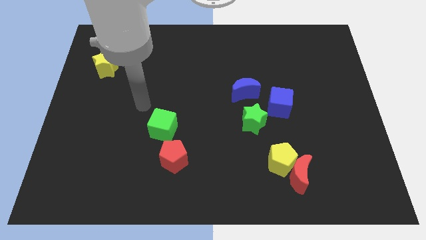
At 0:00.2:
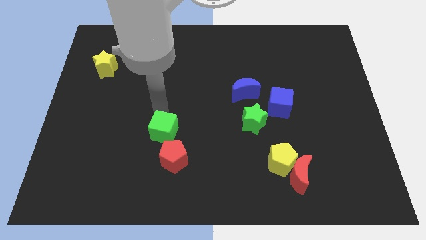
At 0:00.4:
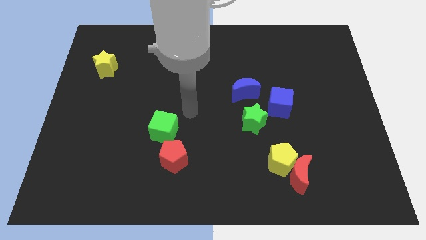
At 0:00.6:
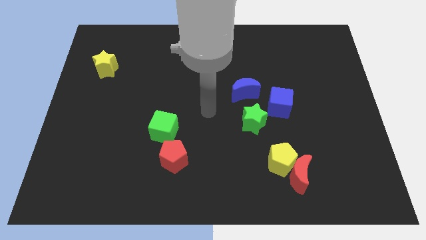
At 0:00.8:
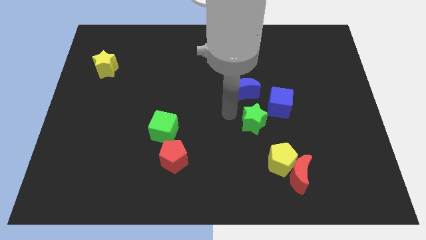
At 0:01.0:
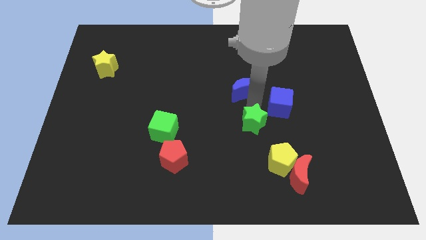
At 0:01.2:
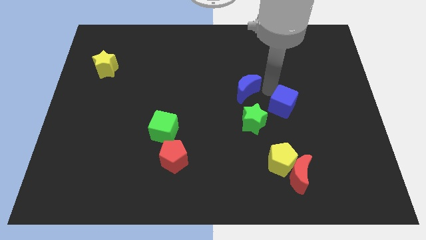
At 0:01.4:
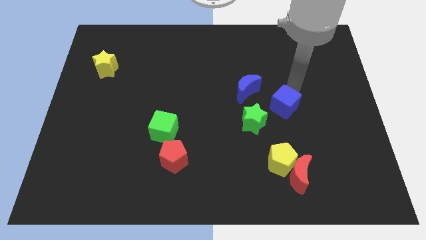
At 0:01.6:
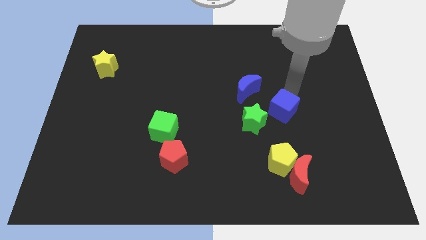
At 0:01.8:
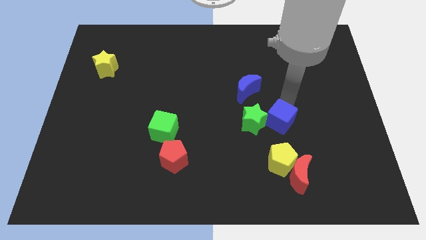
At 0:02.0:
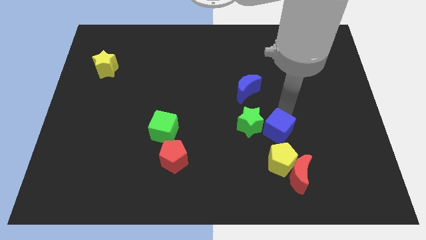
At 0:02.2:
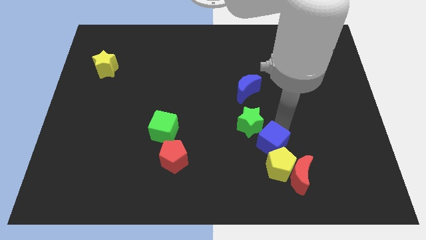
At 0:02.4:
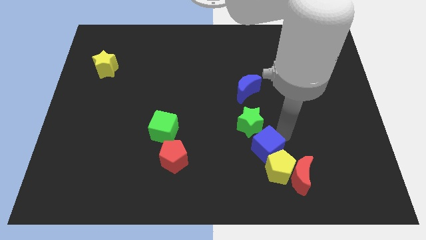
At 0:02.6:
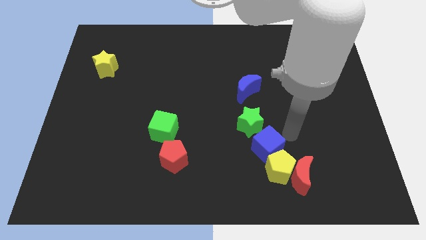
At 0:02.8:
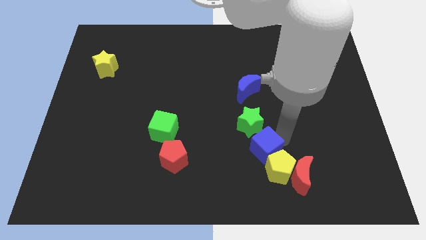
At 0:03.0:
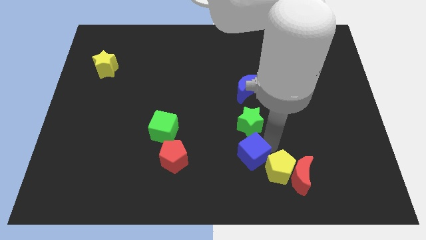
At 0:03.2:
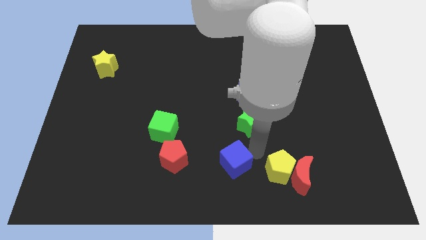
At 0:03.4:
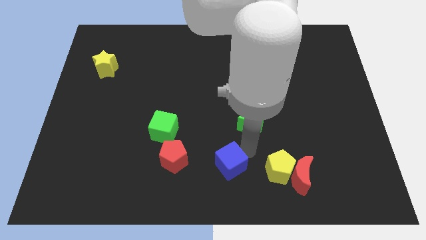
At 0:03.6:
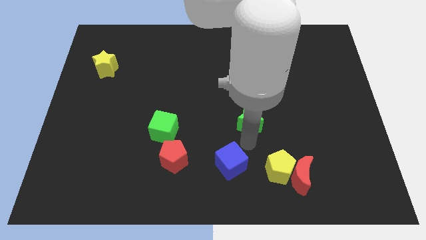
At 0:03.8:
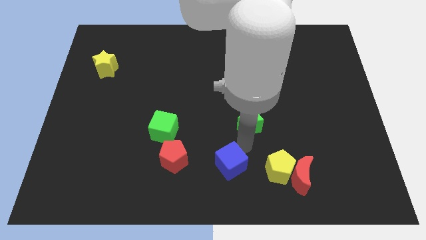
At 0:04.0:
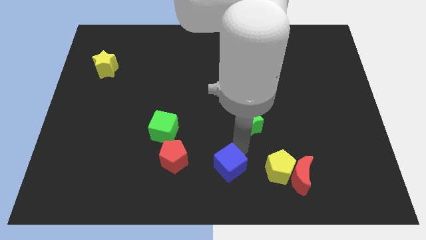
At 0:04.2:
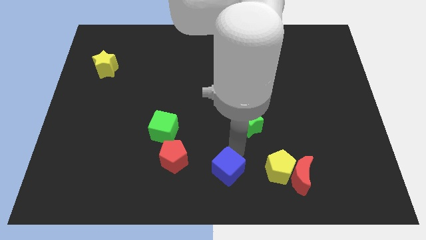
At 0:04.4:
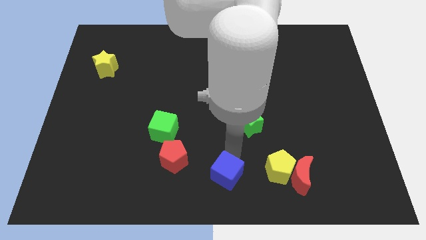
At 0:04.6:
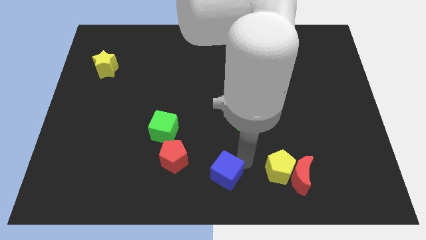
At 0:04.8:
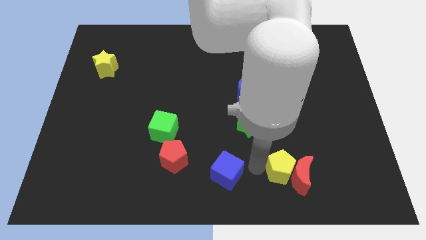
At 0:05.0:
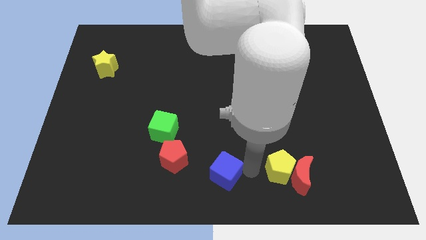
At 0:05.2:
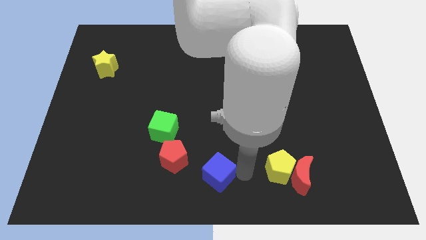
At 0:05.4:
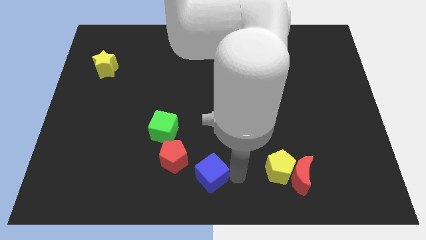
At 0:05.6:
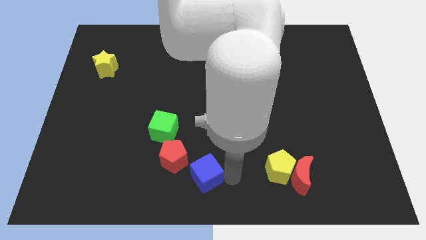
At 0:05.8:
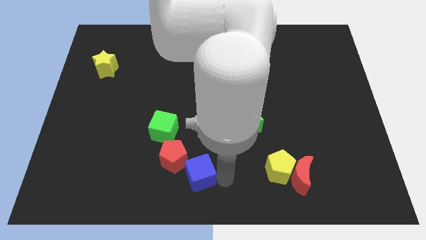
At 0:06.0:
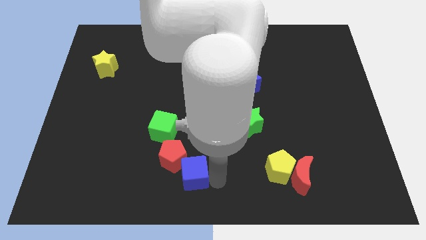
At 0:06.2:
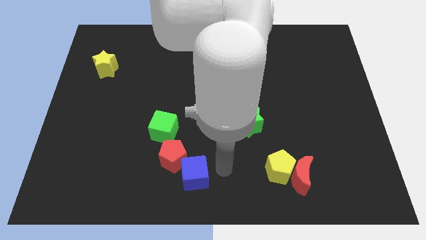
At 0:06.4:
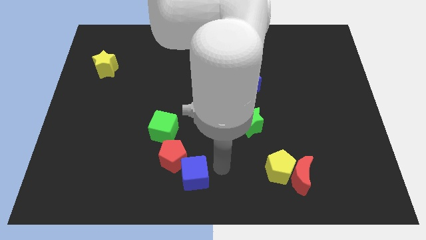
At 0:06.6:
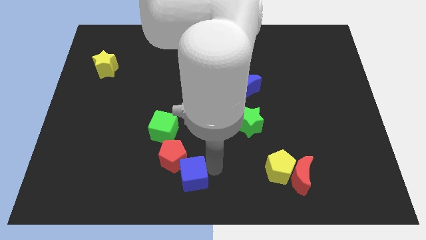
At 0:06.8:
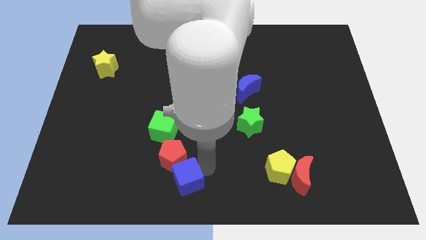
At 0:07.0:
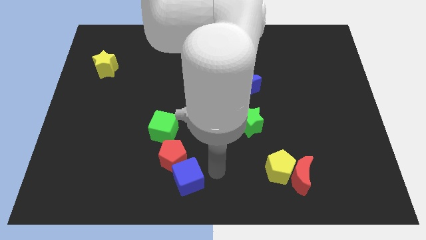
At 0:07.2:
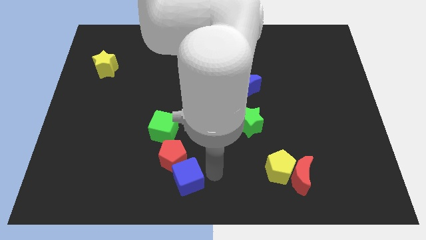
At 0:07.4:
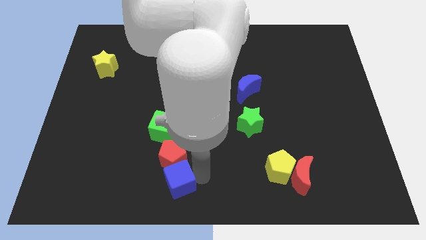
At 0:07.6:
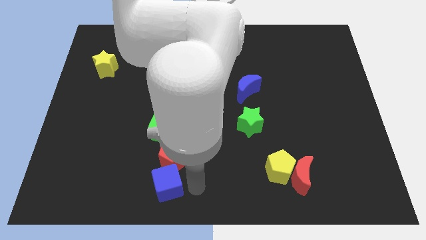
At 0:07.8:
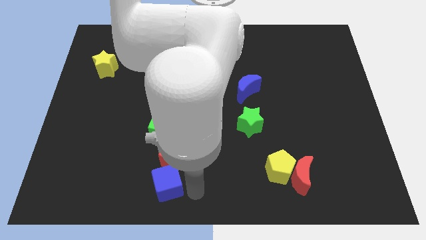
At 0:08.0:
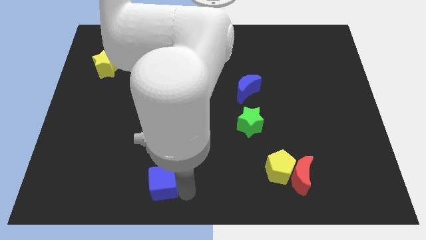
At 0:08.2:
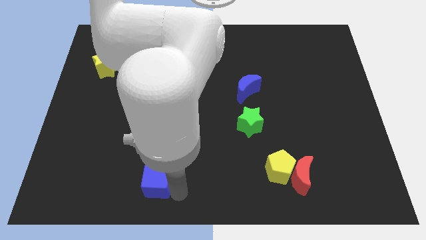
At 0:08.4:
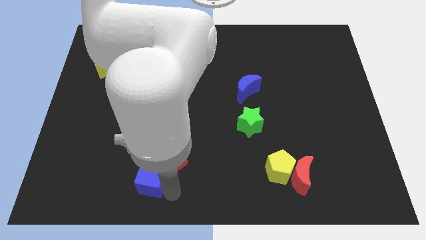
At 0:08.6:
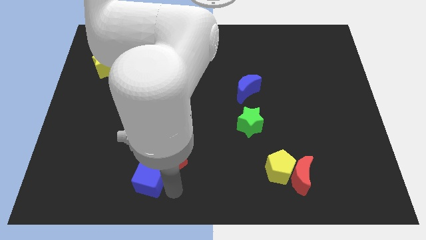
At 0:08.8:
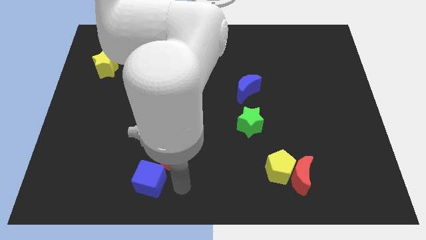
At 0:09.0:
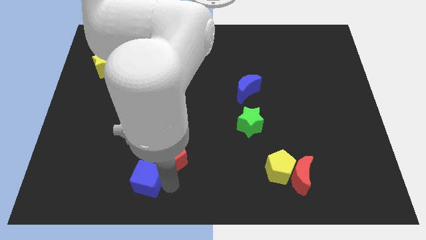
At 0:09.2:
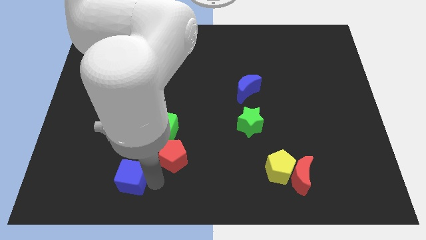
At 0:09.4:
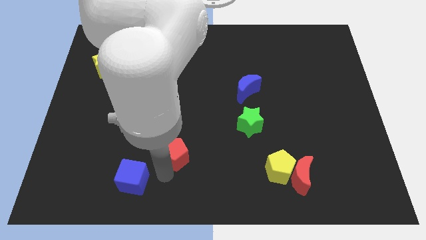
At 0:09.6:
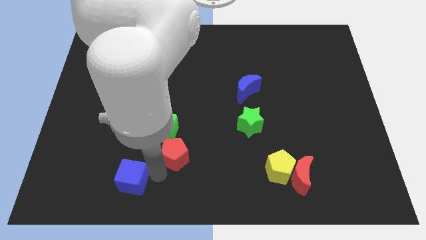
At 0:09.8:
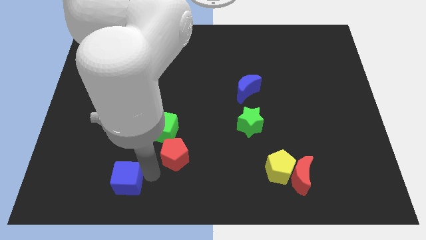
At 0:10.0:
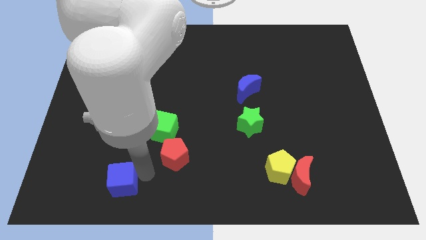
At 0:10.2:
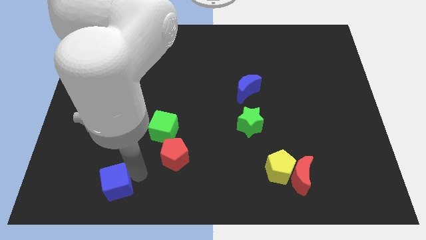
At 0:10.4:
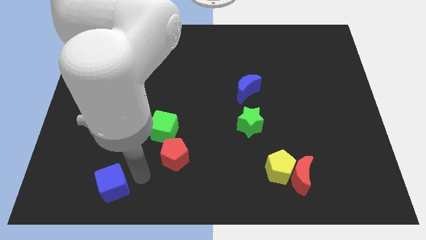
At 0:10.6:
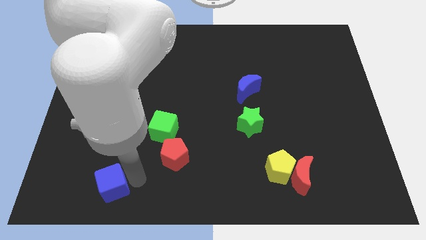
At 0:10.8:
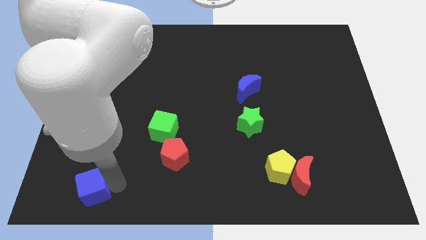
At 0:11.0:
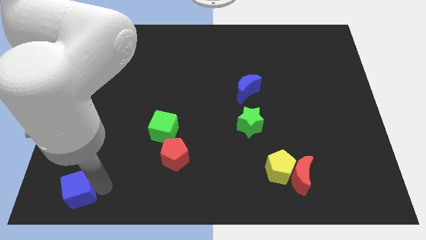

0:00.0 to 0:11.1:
slide the blue cube to the bottom left corner

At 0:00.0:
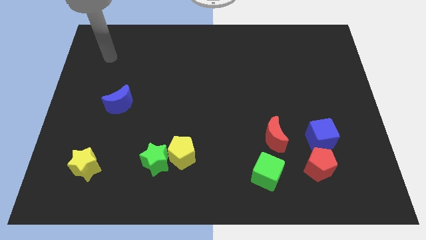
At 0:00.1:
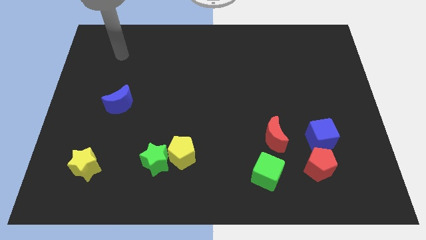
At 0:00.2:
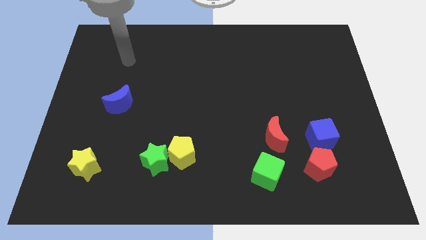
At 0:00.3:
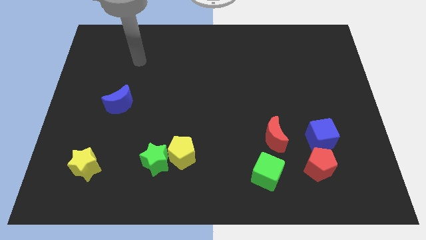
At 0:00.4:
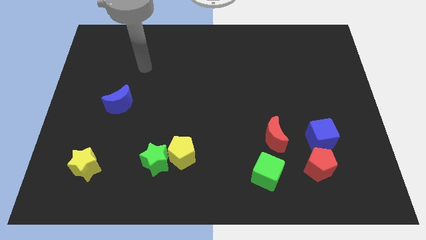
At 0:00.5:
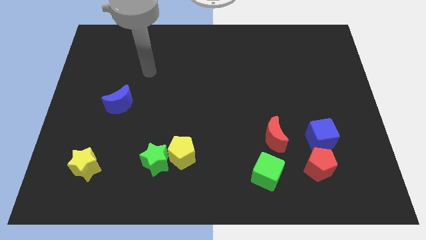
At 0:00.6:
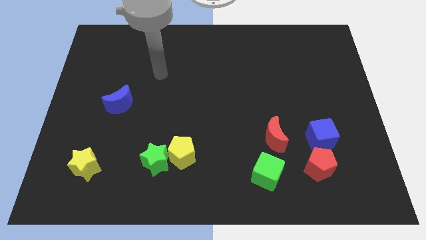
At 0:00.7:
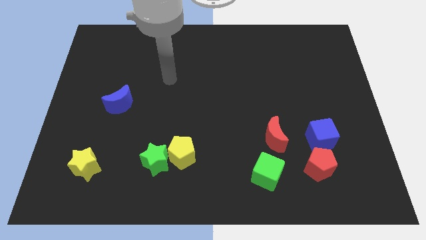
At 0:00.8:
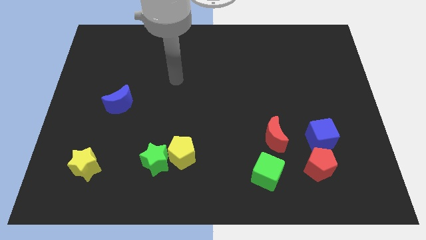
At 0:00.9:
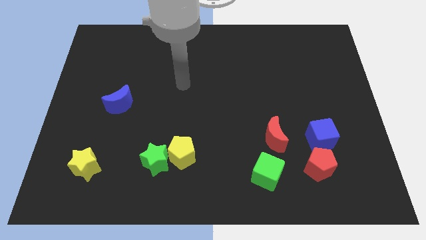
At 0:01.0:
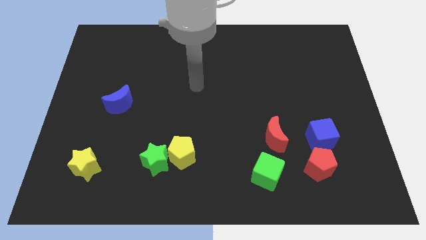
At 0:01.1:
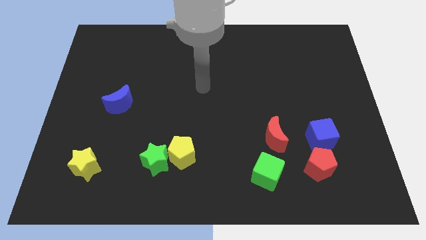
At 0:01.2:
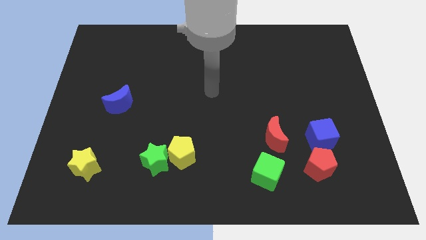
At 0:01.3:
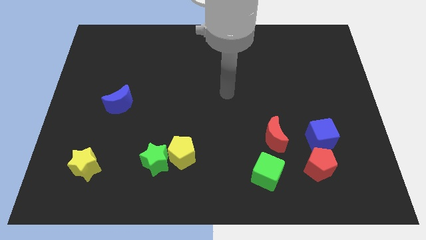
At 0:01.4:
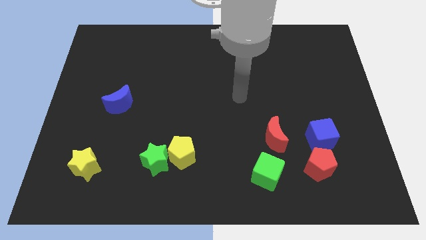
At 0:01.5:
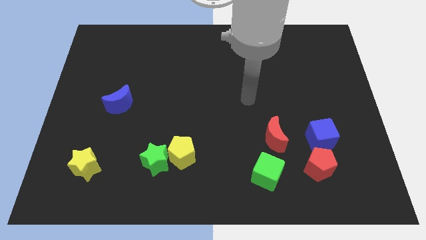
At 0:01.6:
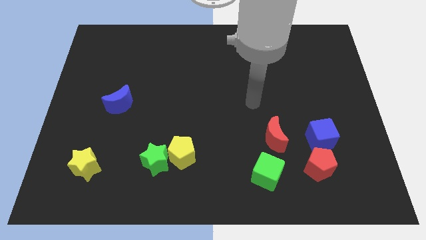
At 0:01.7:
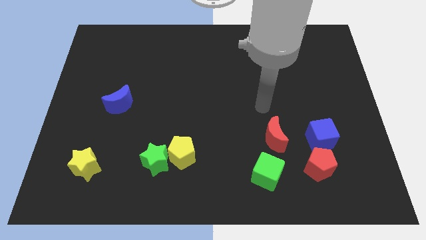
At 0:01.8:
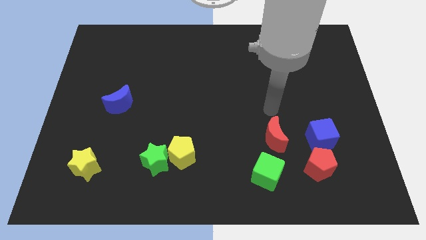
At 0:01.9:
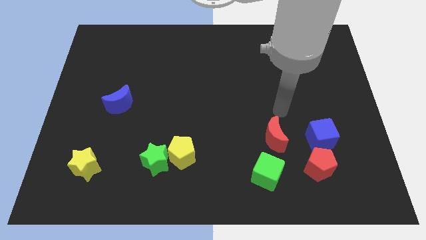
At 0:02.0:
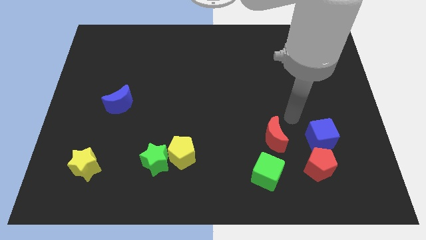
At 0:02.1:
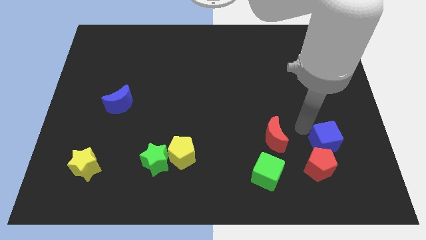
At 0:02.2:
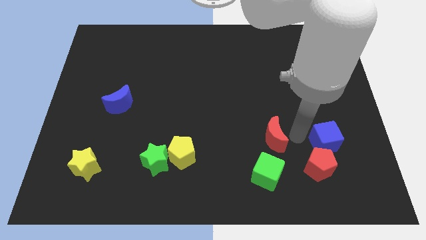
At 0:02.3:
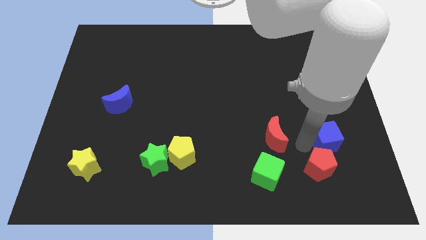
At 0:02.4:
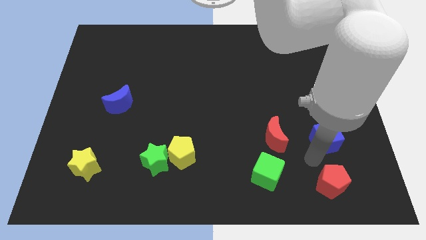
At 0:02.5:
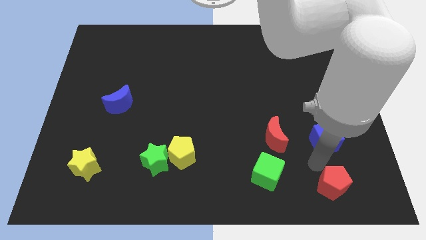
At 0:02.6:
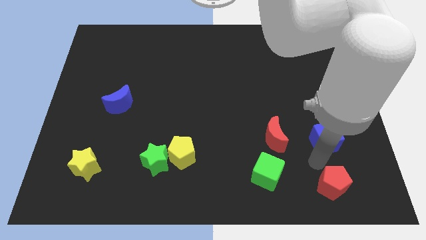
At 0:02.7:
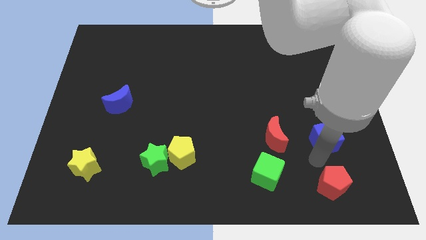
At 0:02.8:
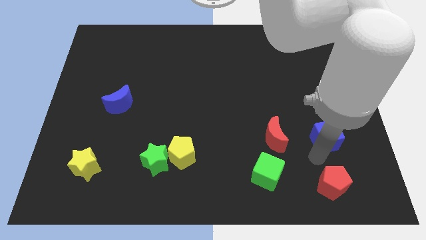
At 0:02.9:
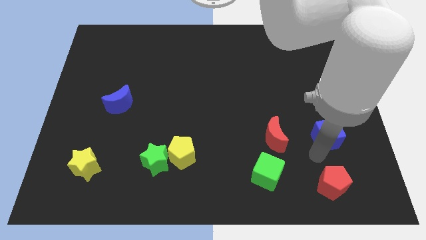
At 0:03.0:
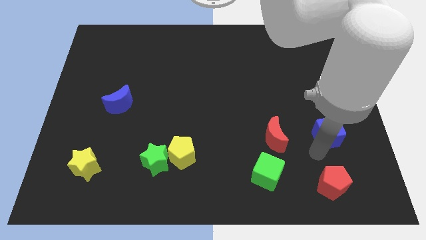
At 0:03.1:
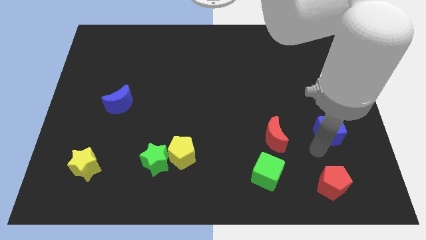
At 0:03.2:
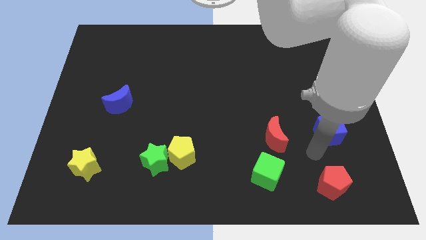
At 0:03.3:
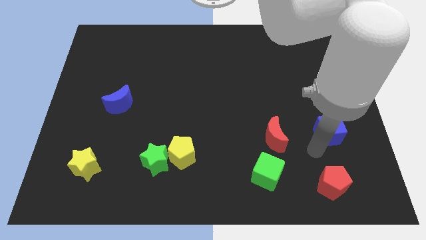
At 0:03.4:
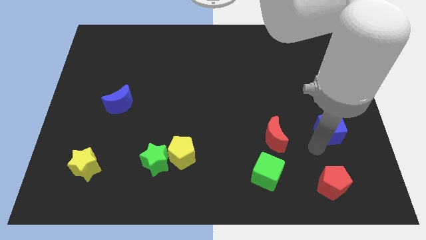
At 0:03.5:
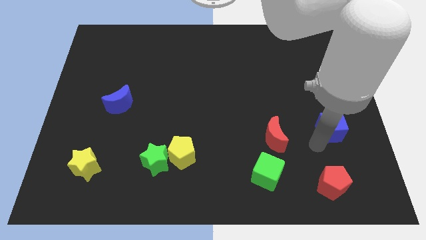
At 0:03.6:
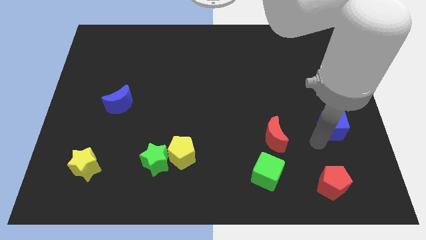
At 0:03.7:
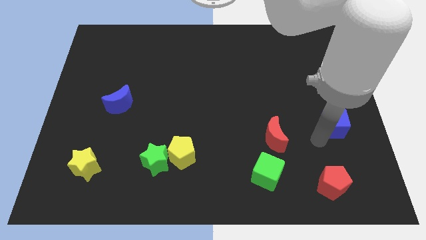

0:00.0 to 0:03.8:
slide the blue cube to the right side of the board
